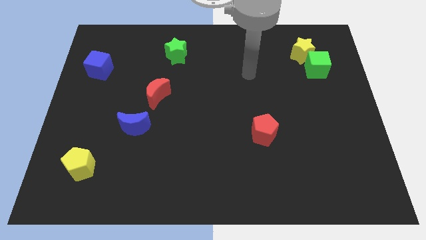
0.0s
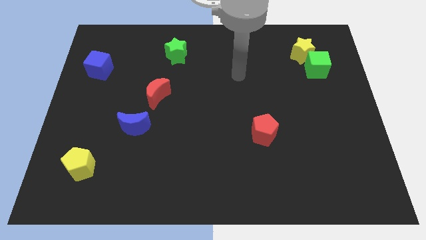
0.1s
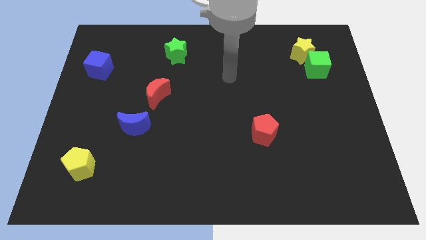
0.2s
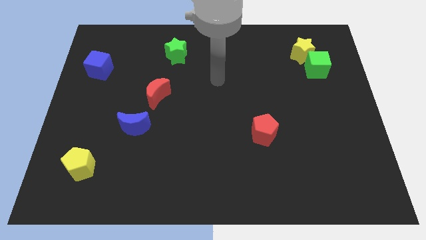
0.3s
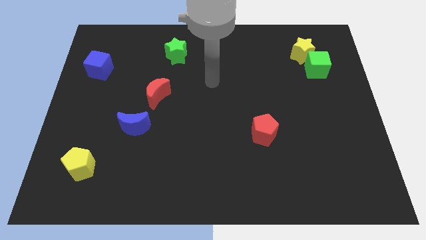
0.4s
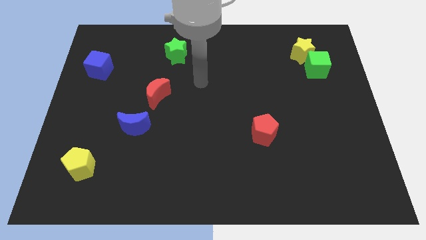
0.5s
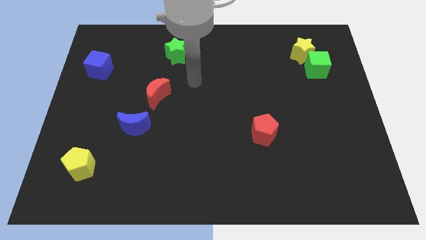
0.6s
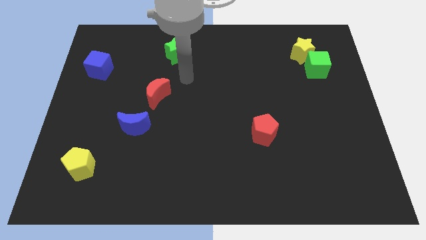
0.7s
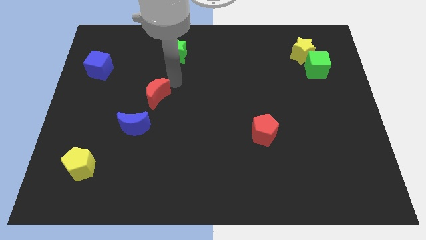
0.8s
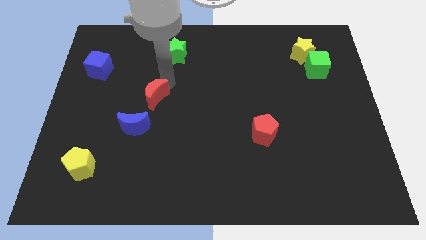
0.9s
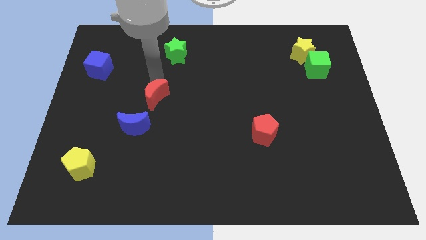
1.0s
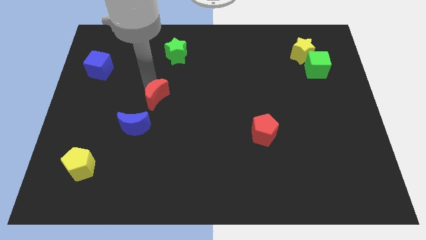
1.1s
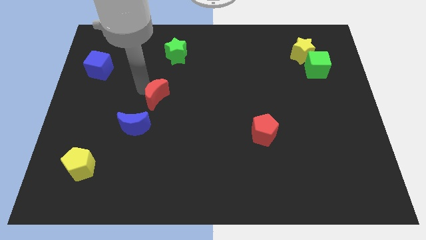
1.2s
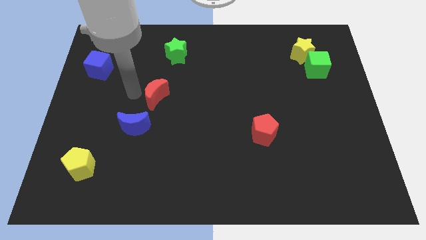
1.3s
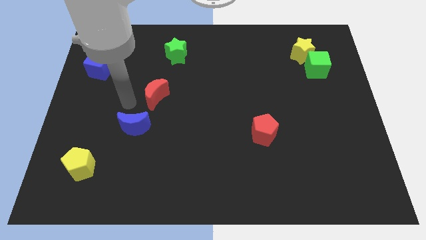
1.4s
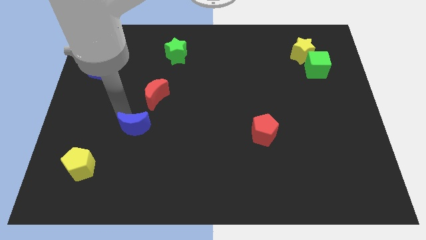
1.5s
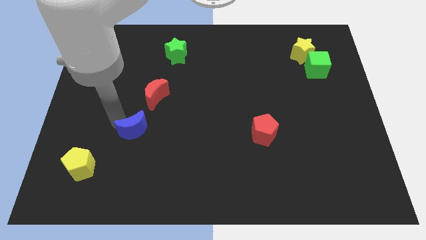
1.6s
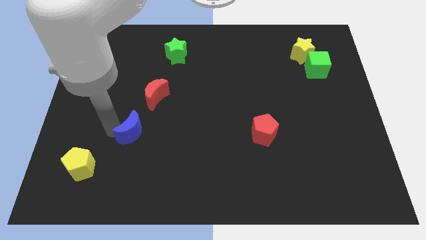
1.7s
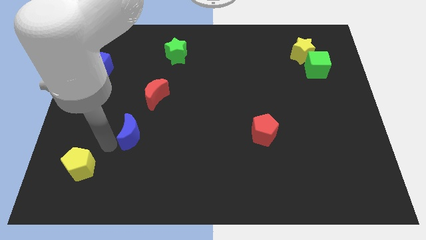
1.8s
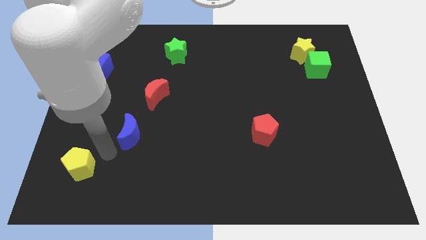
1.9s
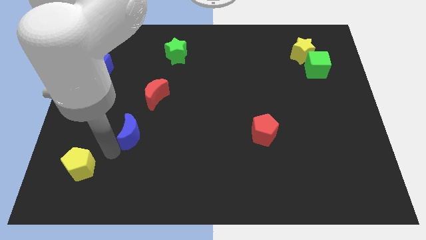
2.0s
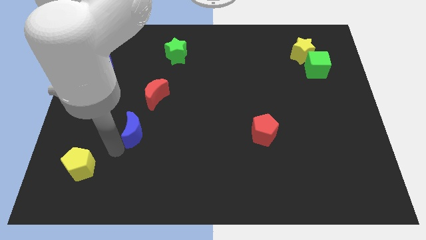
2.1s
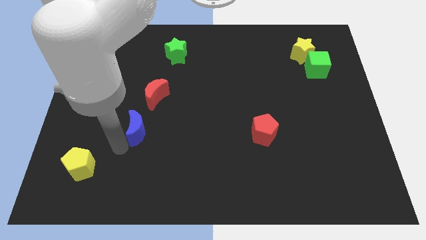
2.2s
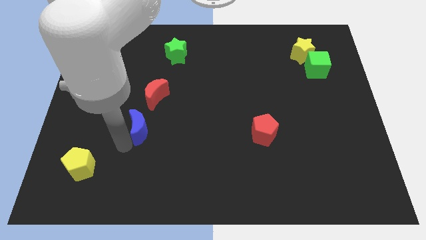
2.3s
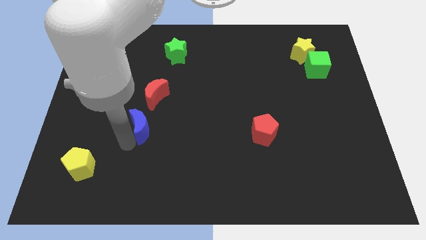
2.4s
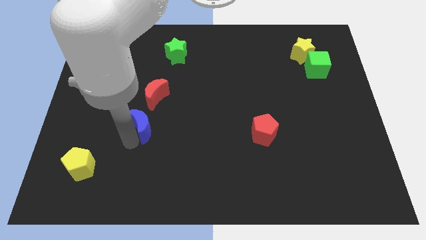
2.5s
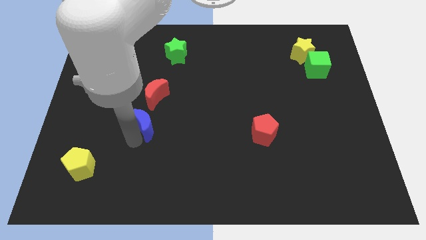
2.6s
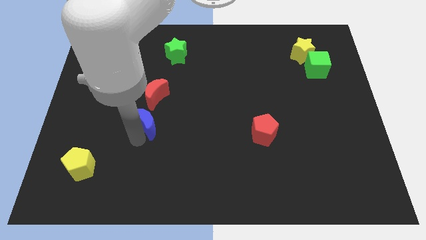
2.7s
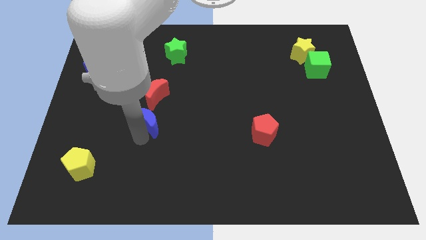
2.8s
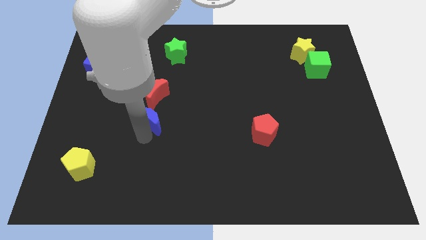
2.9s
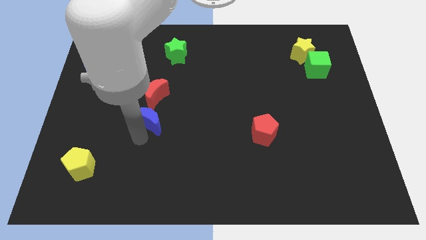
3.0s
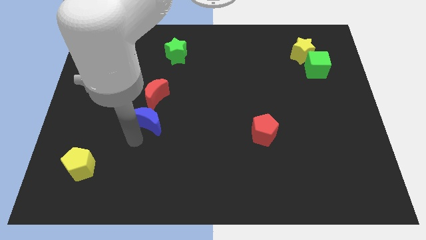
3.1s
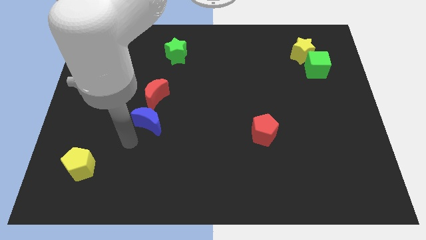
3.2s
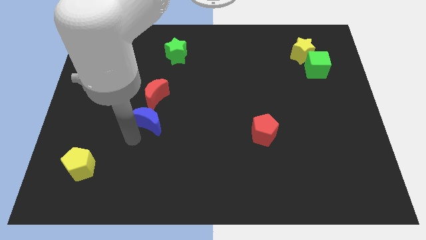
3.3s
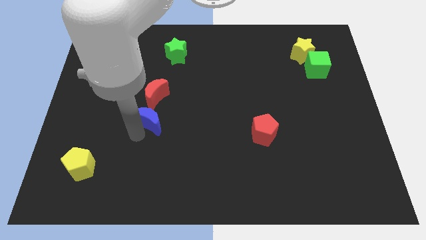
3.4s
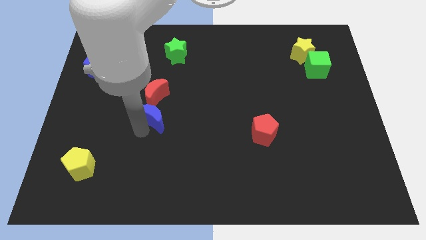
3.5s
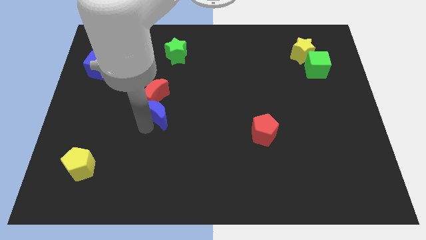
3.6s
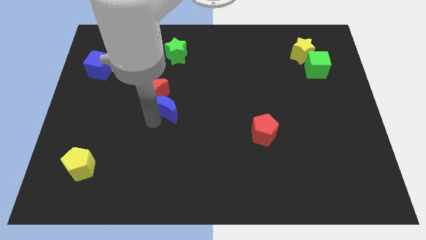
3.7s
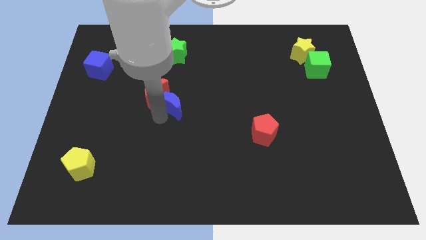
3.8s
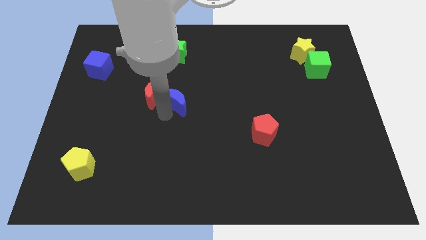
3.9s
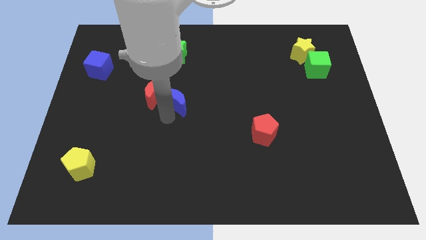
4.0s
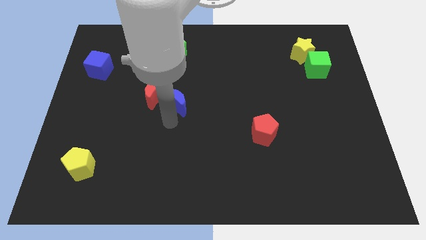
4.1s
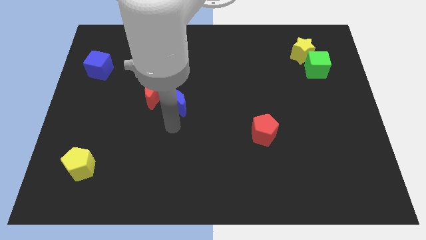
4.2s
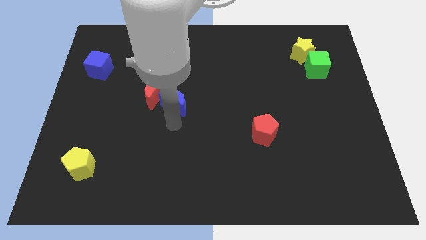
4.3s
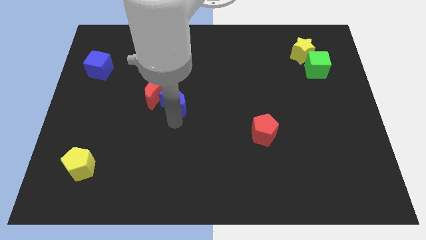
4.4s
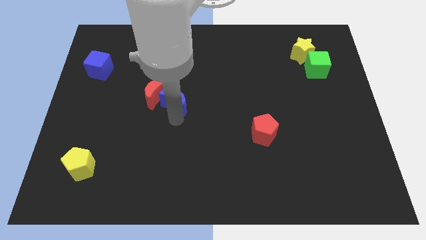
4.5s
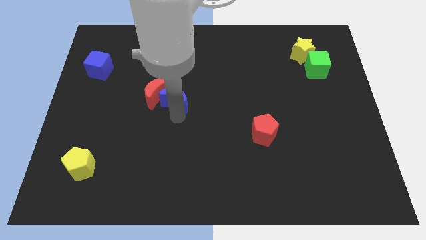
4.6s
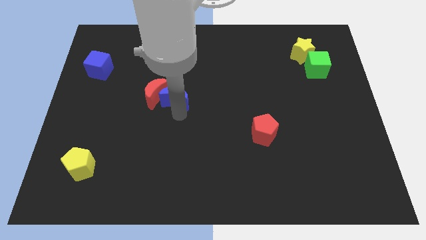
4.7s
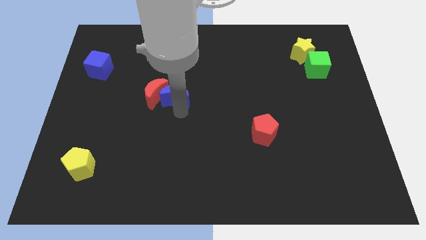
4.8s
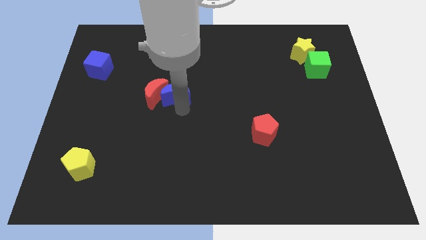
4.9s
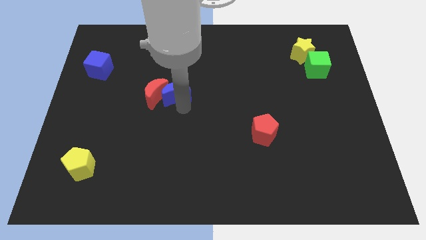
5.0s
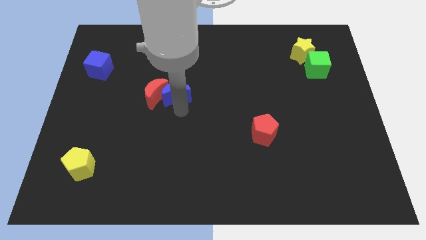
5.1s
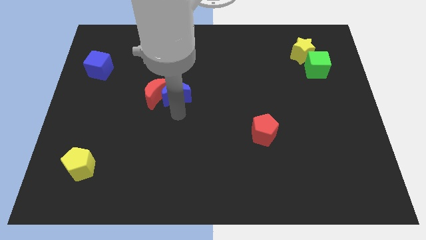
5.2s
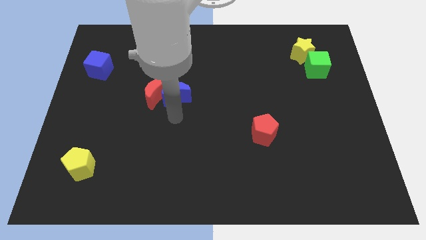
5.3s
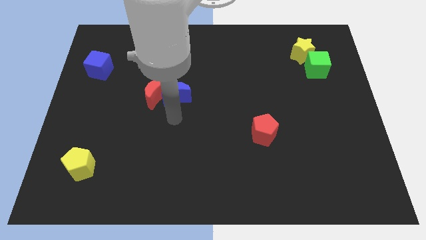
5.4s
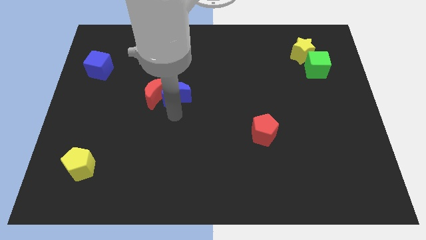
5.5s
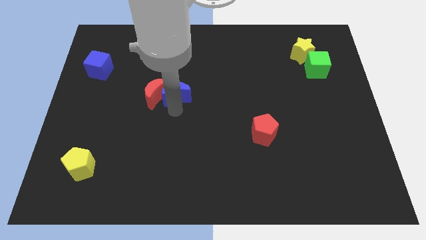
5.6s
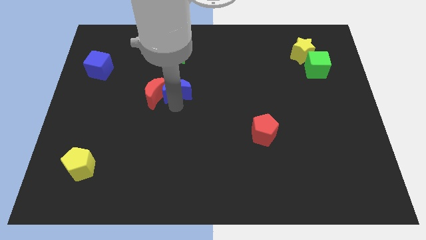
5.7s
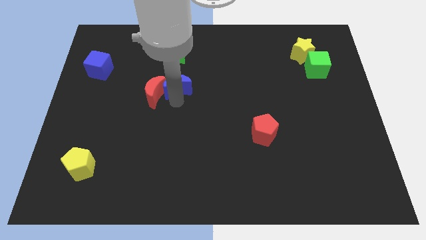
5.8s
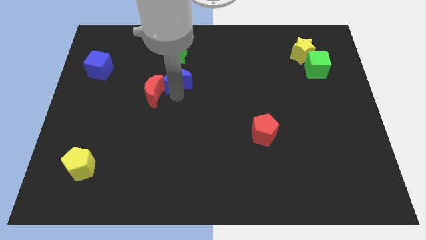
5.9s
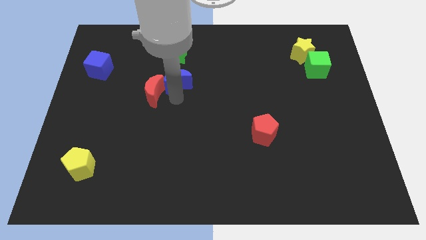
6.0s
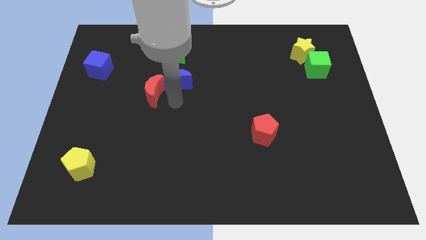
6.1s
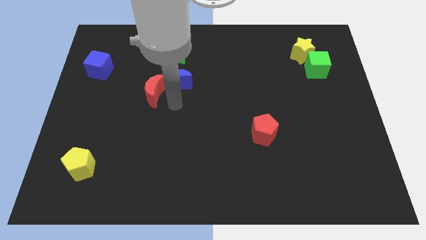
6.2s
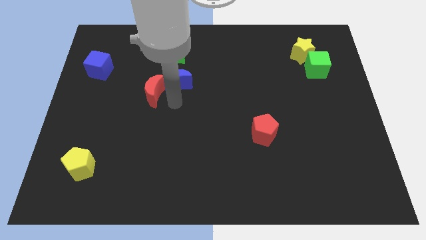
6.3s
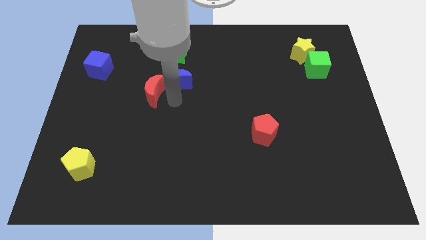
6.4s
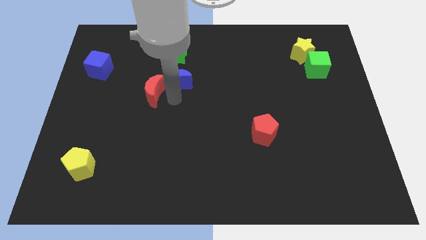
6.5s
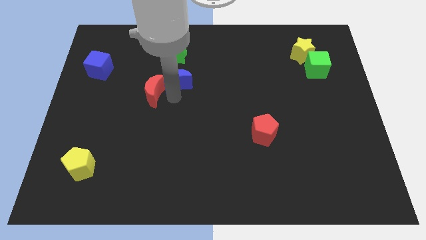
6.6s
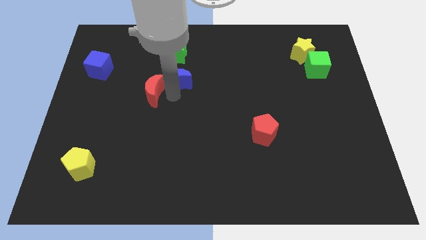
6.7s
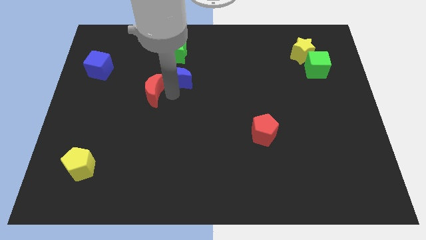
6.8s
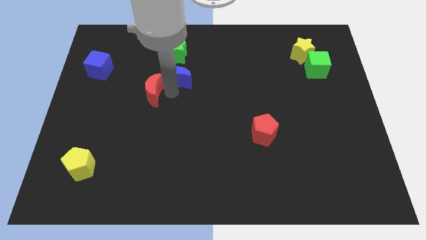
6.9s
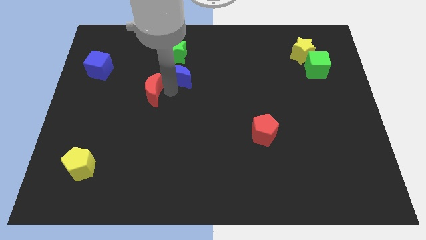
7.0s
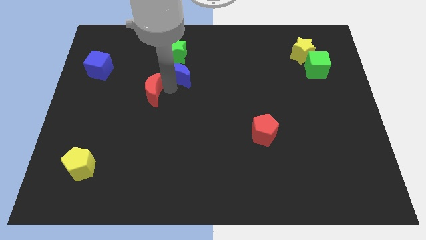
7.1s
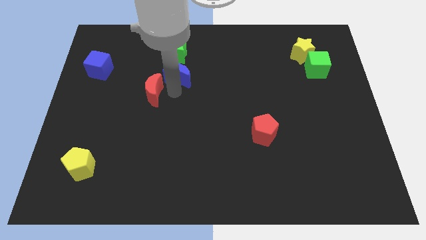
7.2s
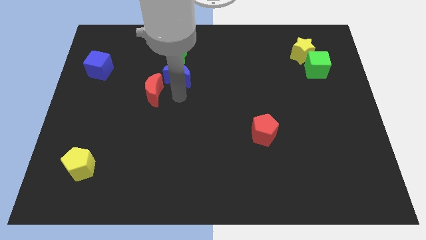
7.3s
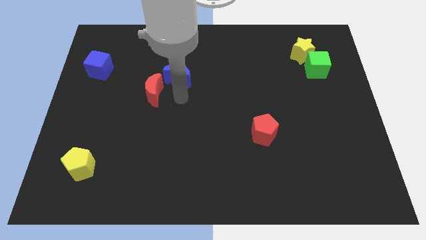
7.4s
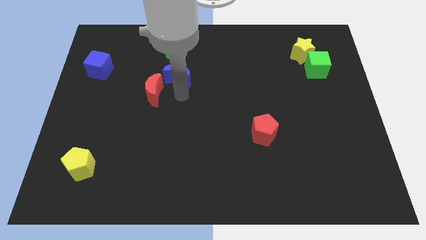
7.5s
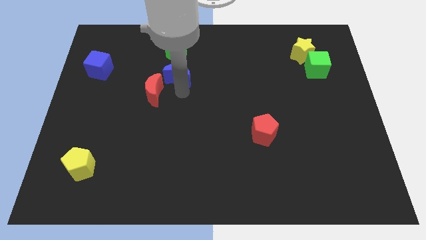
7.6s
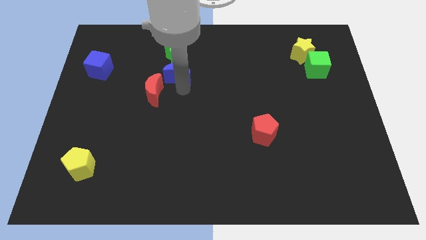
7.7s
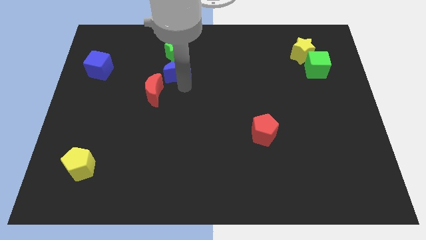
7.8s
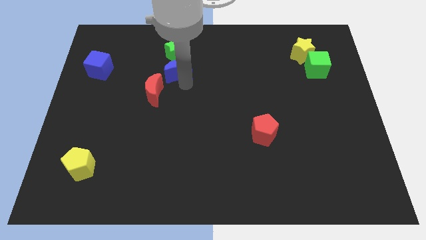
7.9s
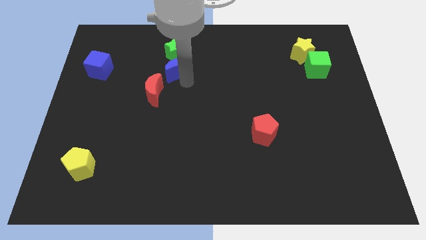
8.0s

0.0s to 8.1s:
push the blue moon towards the green star
